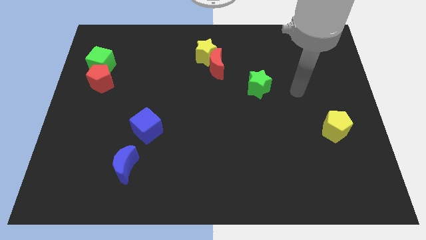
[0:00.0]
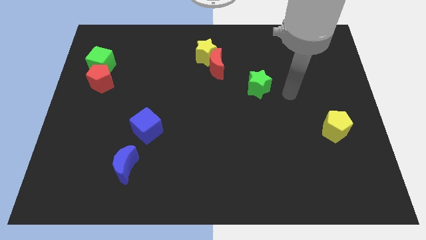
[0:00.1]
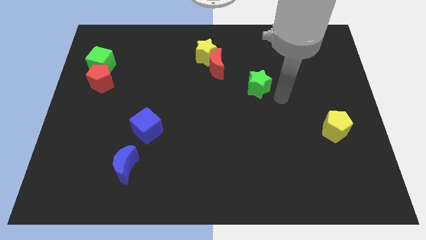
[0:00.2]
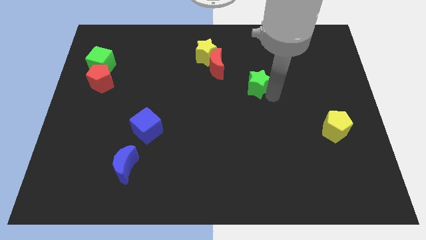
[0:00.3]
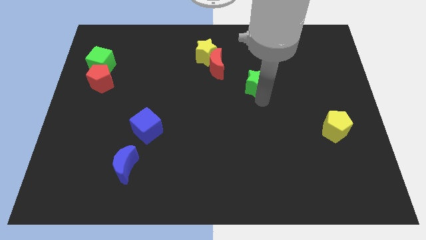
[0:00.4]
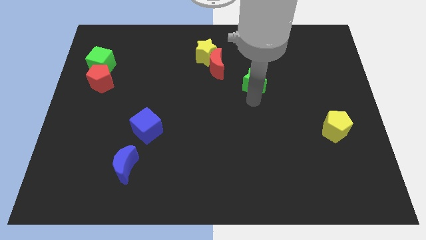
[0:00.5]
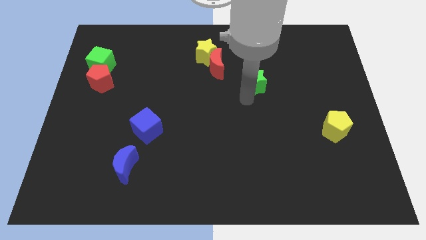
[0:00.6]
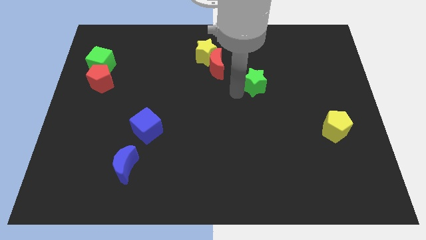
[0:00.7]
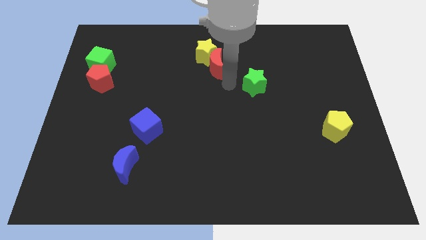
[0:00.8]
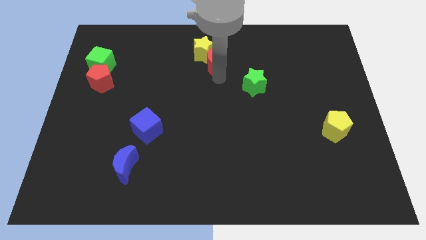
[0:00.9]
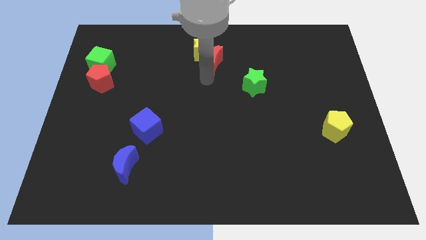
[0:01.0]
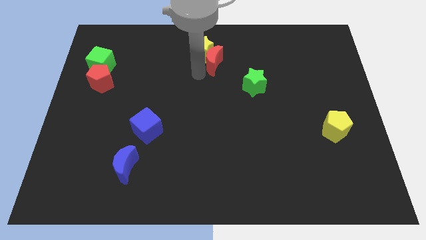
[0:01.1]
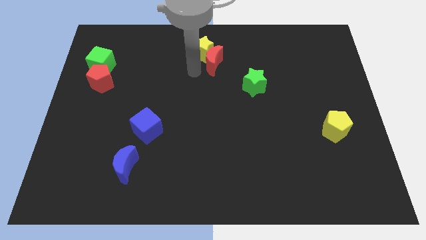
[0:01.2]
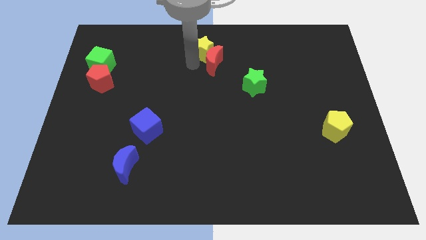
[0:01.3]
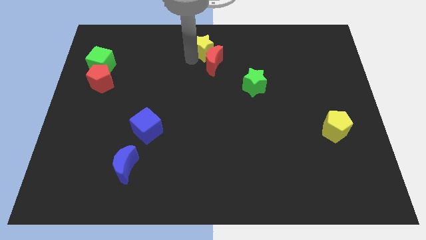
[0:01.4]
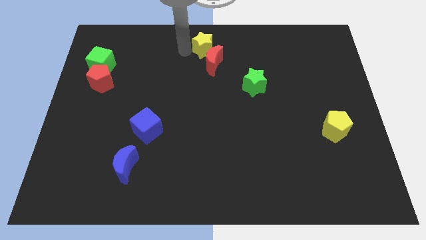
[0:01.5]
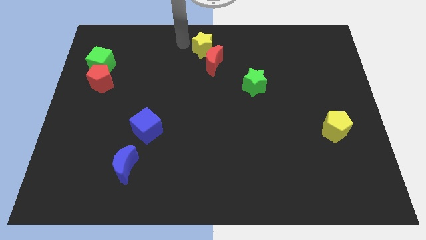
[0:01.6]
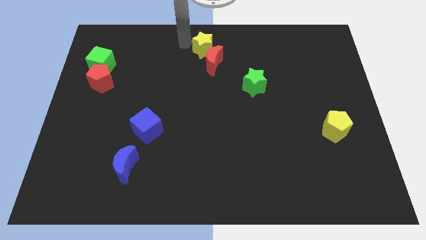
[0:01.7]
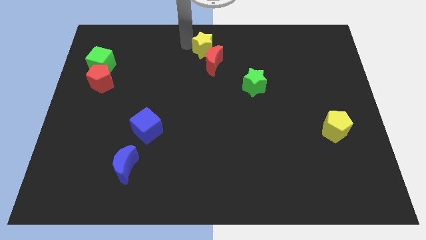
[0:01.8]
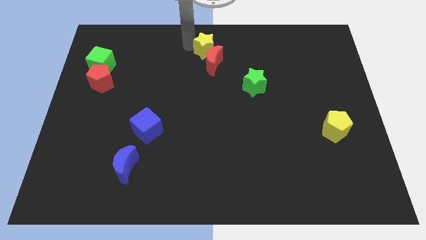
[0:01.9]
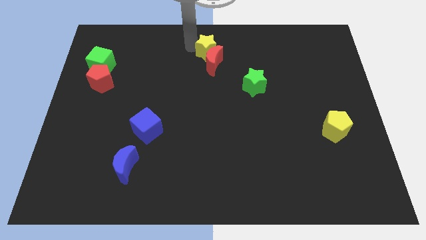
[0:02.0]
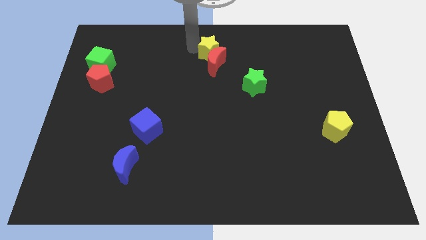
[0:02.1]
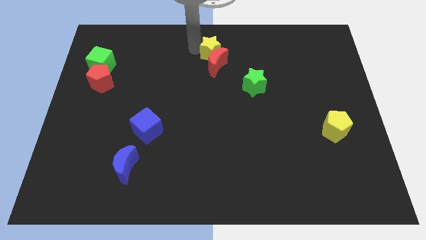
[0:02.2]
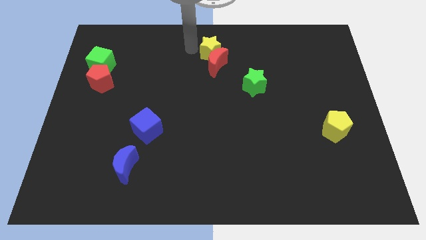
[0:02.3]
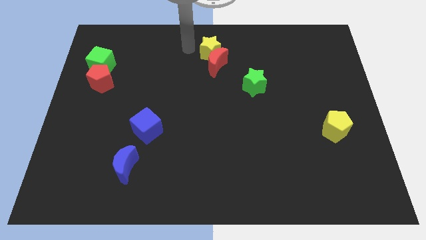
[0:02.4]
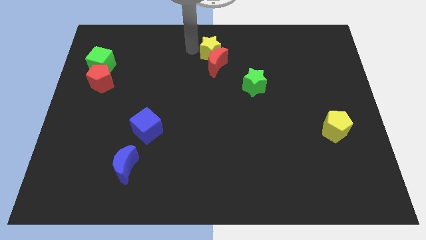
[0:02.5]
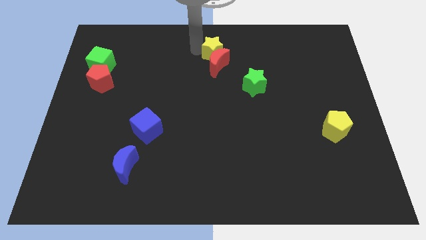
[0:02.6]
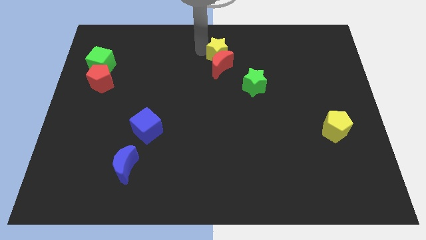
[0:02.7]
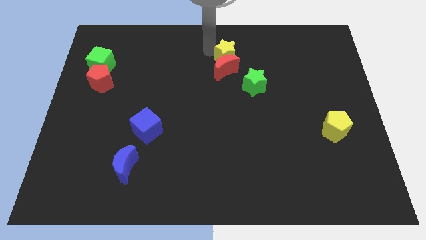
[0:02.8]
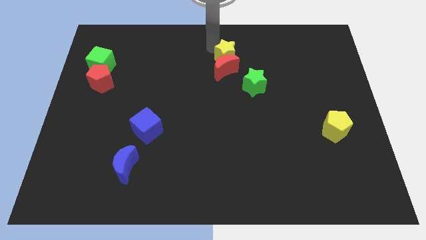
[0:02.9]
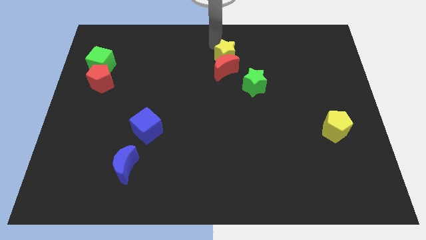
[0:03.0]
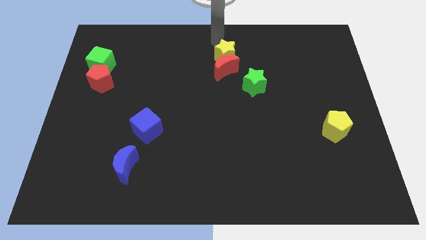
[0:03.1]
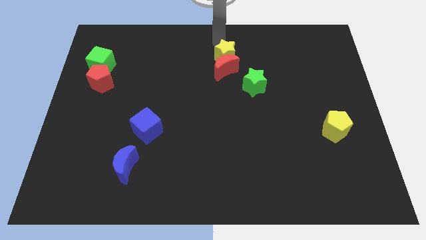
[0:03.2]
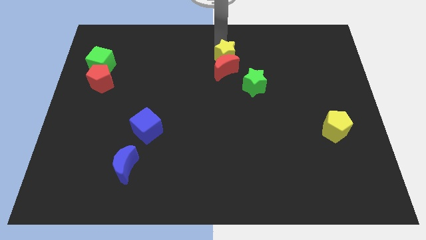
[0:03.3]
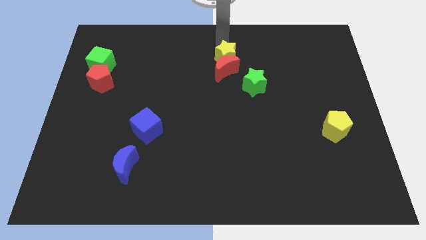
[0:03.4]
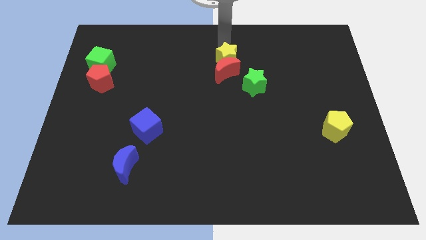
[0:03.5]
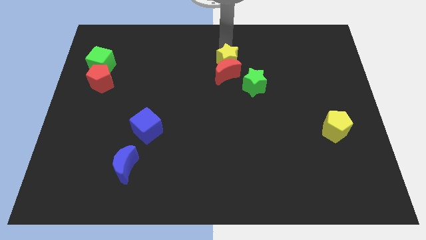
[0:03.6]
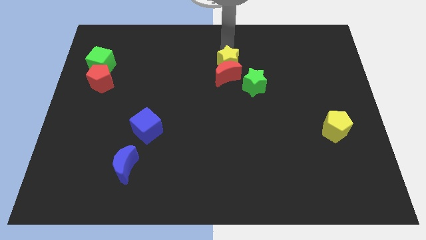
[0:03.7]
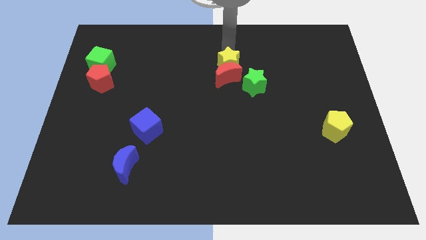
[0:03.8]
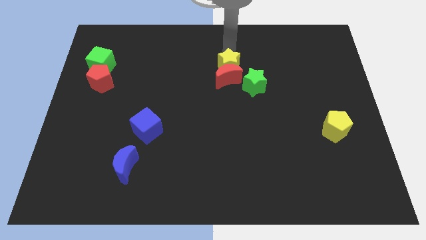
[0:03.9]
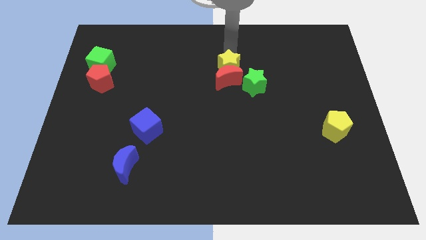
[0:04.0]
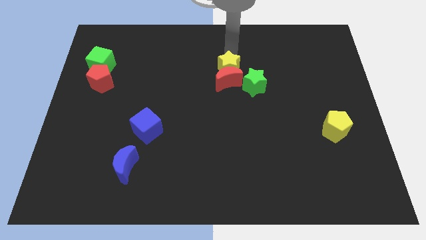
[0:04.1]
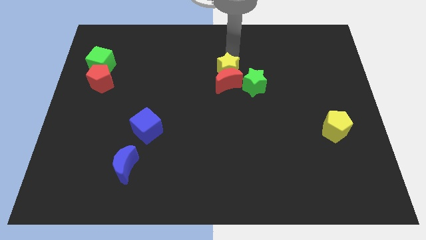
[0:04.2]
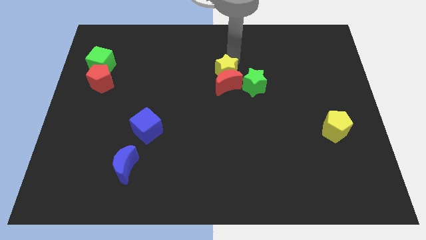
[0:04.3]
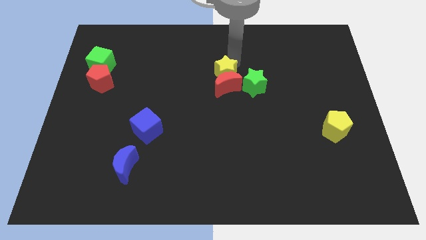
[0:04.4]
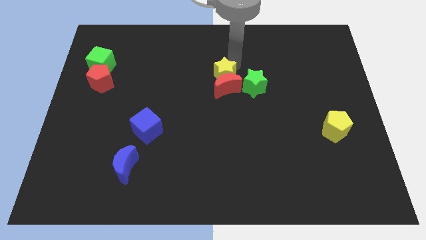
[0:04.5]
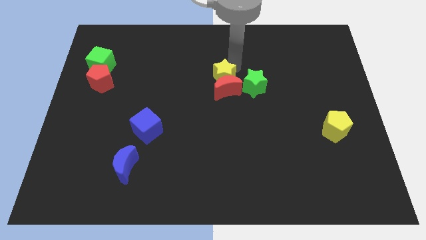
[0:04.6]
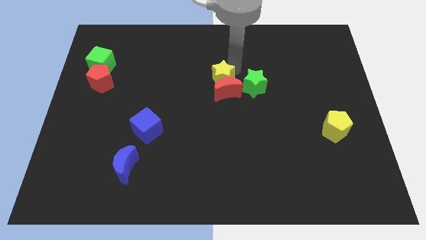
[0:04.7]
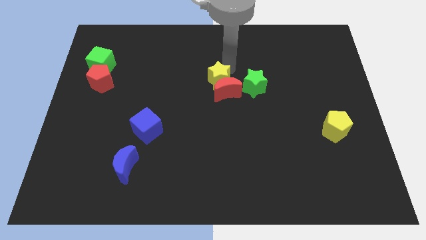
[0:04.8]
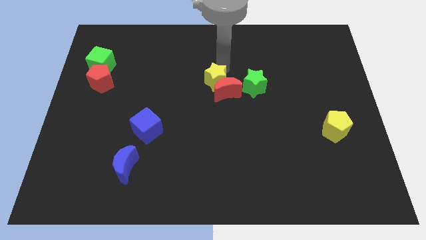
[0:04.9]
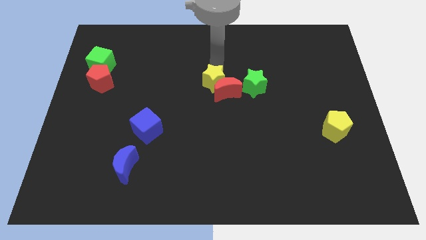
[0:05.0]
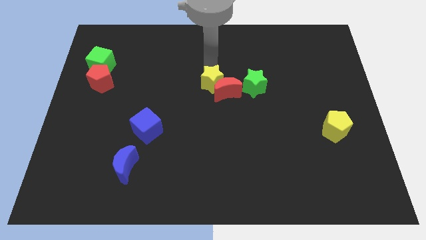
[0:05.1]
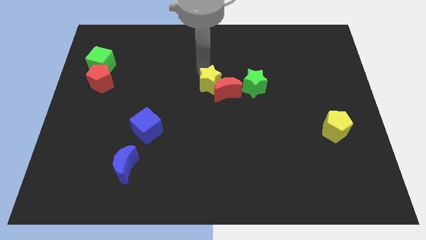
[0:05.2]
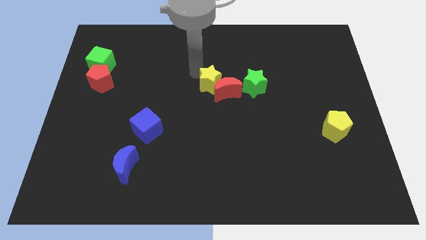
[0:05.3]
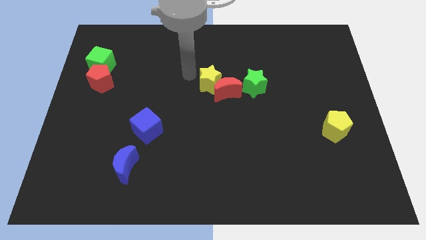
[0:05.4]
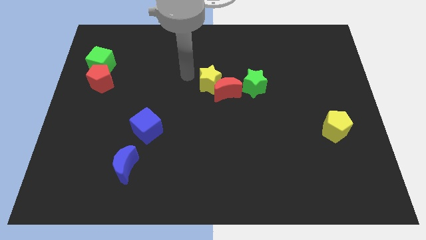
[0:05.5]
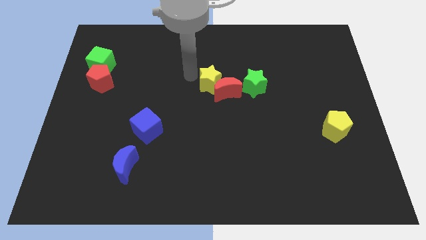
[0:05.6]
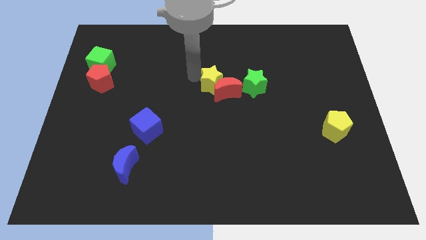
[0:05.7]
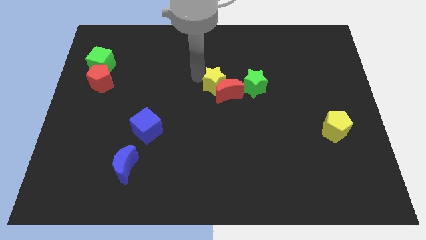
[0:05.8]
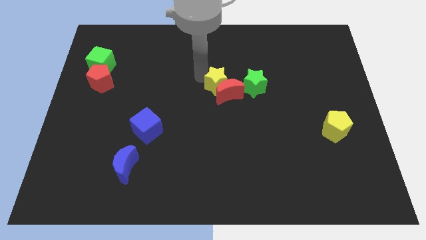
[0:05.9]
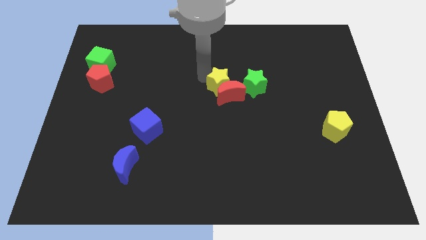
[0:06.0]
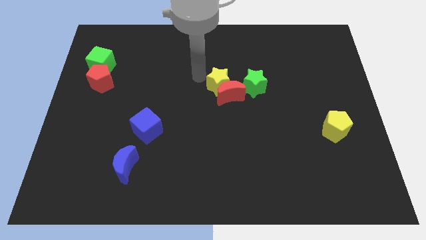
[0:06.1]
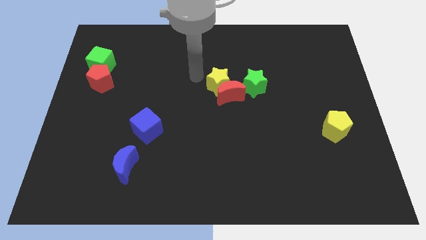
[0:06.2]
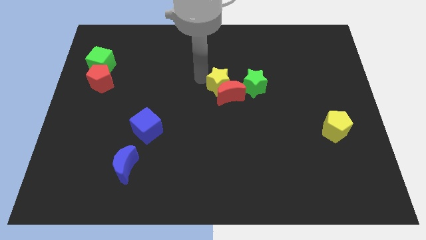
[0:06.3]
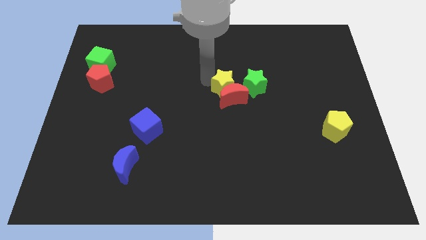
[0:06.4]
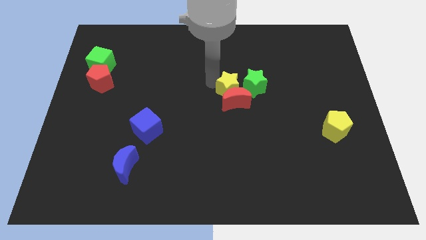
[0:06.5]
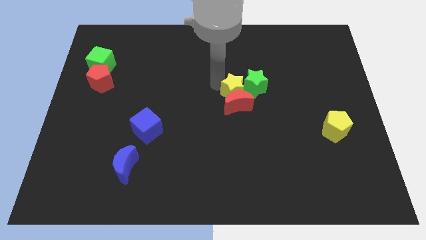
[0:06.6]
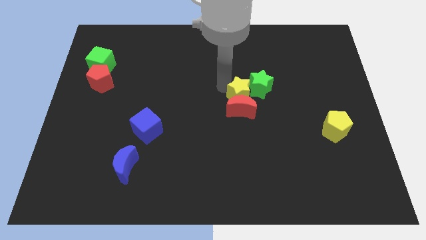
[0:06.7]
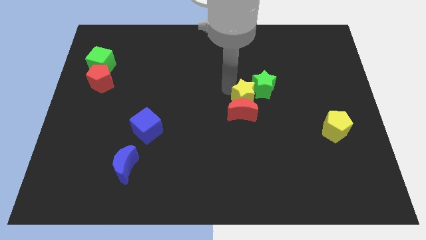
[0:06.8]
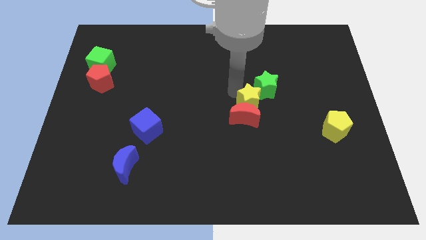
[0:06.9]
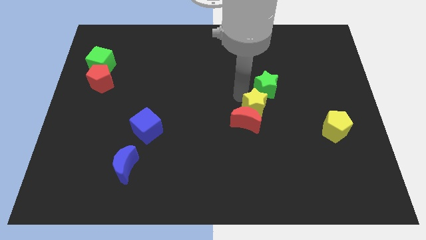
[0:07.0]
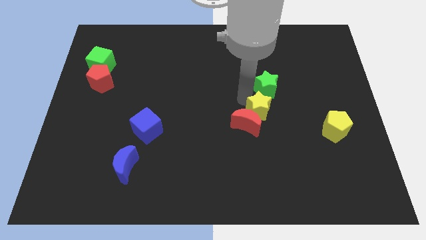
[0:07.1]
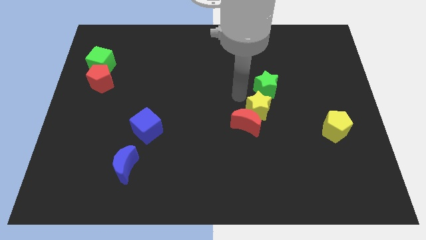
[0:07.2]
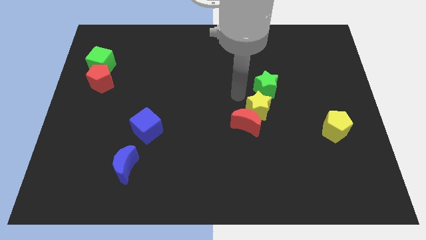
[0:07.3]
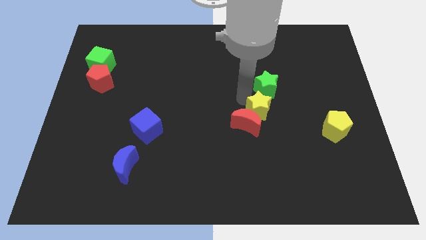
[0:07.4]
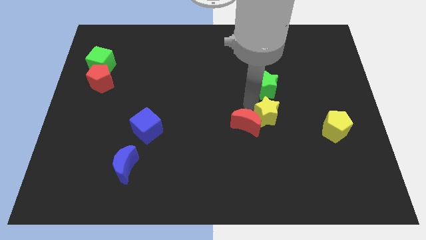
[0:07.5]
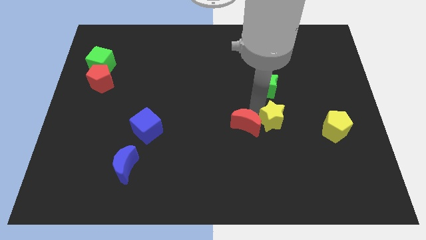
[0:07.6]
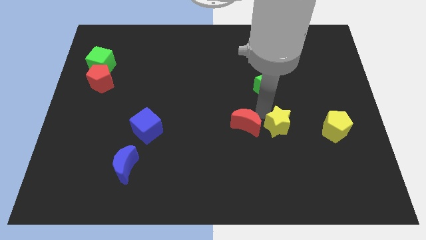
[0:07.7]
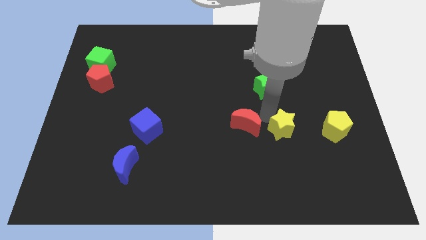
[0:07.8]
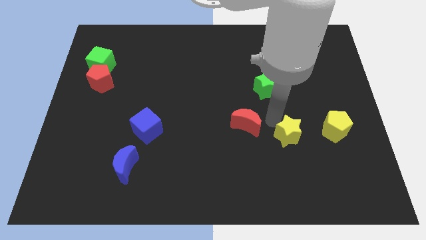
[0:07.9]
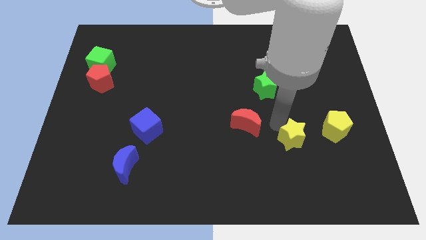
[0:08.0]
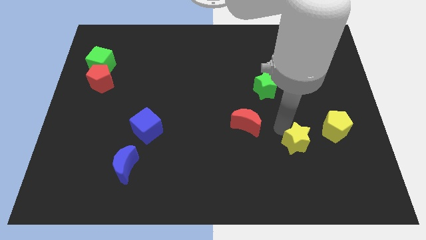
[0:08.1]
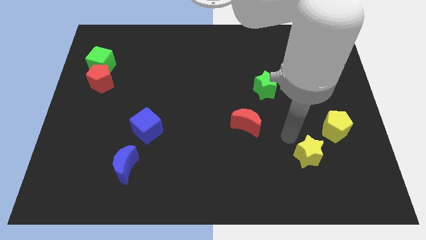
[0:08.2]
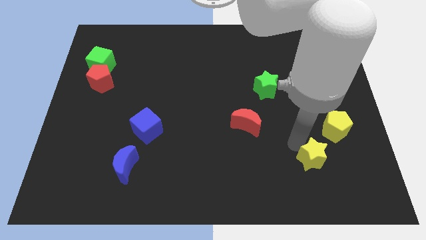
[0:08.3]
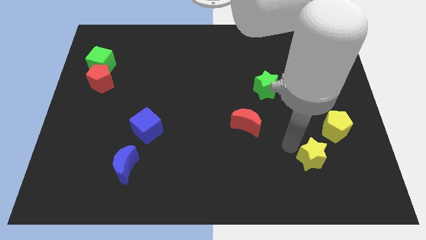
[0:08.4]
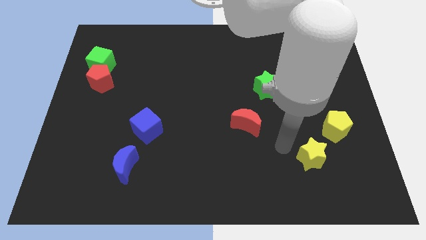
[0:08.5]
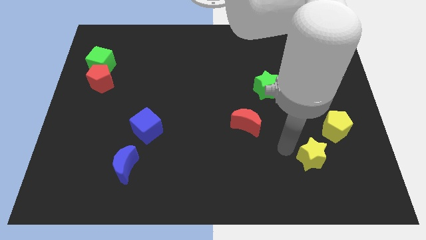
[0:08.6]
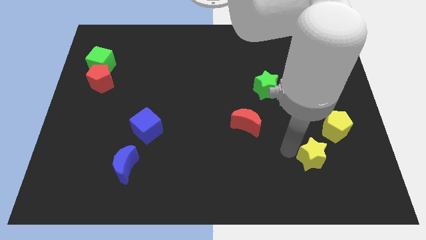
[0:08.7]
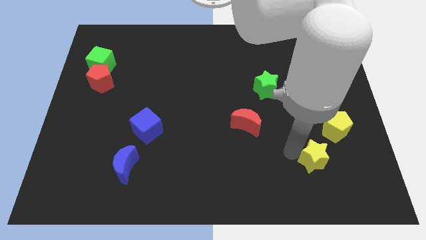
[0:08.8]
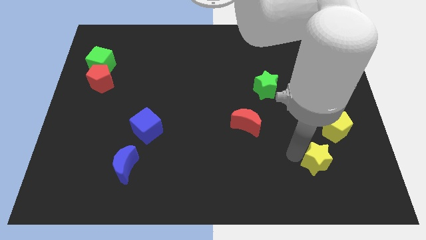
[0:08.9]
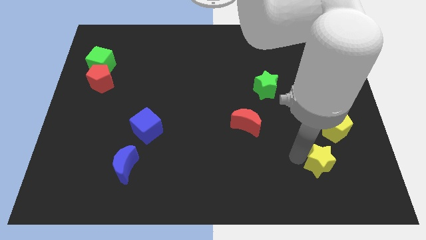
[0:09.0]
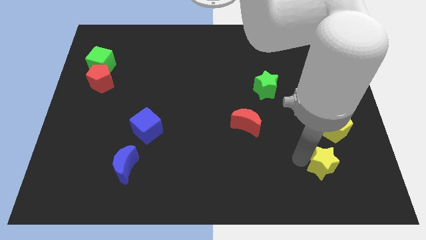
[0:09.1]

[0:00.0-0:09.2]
slide the yellow star to the bottom side of the yellow pentagon
